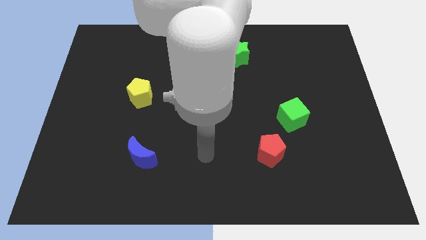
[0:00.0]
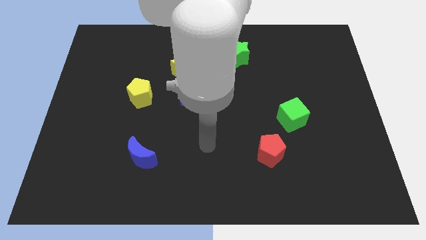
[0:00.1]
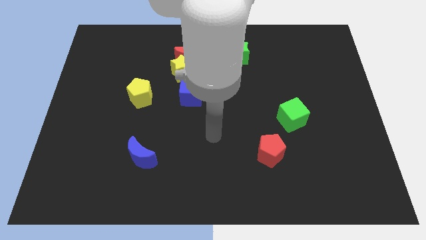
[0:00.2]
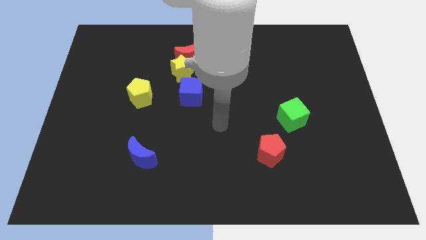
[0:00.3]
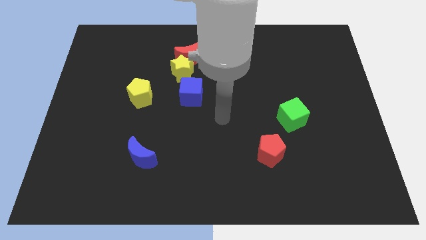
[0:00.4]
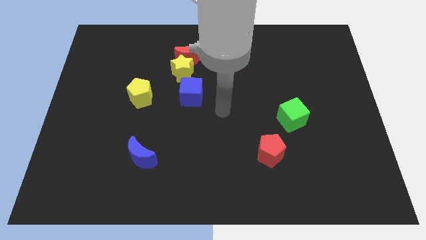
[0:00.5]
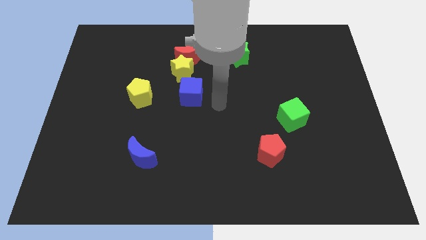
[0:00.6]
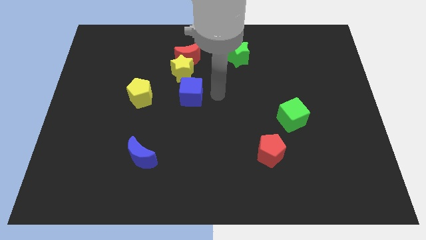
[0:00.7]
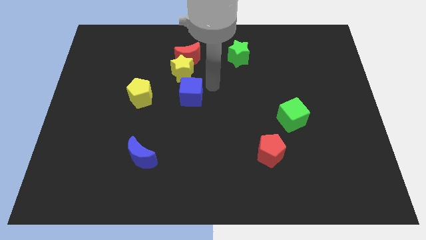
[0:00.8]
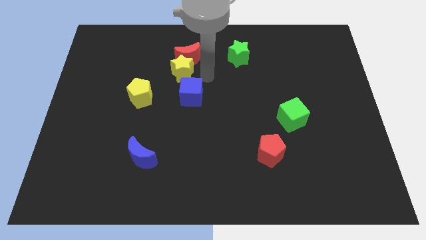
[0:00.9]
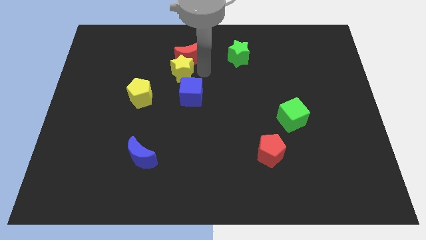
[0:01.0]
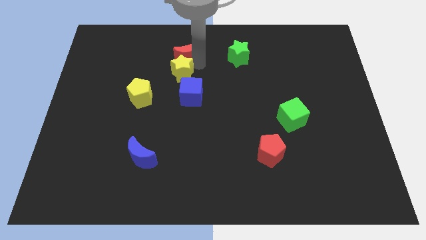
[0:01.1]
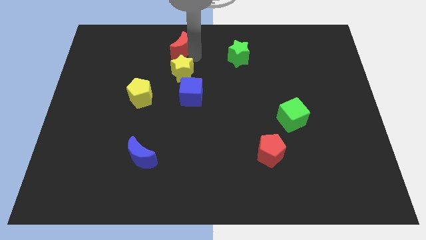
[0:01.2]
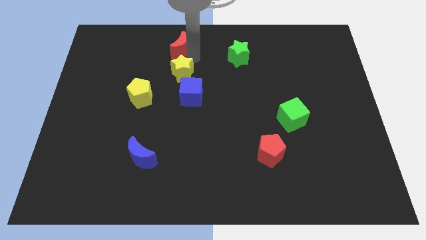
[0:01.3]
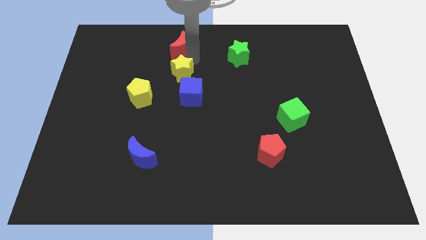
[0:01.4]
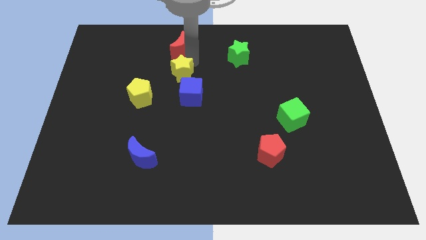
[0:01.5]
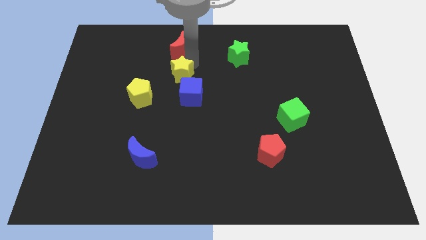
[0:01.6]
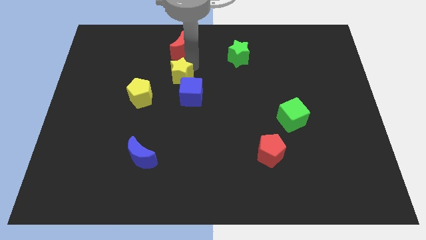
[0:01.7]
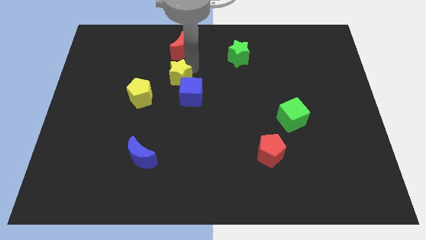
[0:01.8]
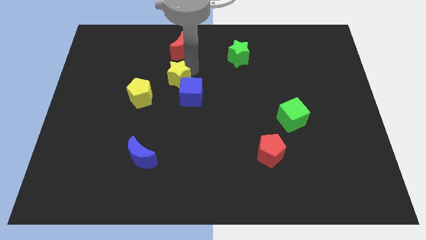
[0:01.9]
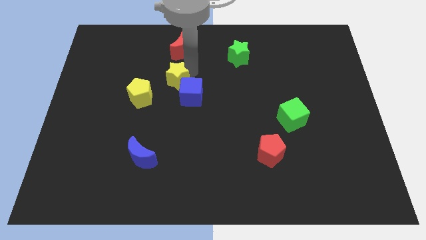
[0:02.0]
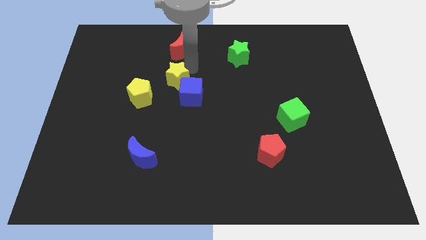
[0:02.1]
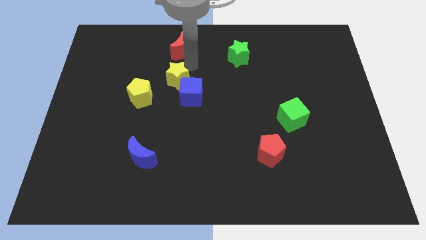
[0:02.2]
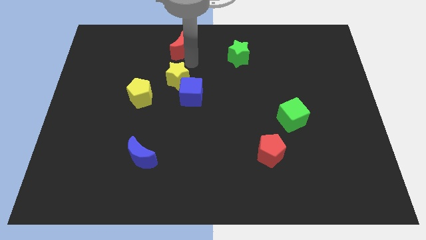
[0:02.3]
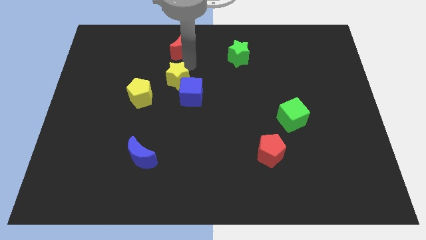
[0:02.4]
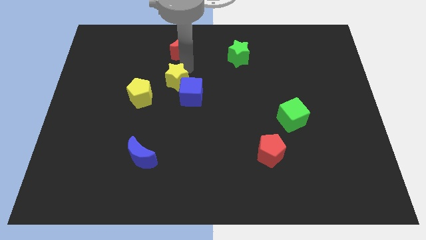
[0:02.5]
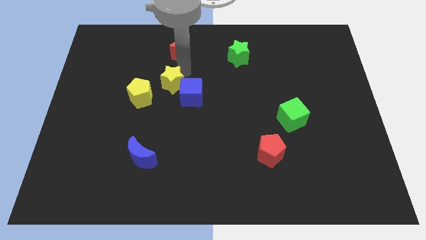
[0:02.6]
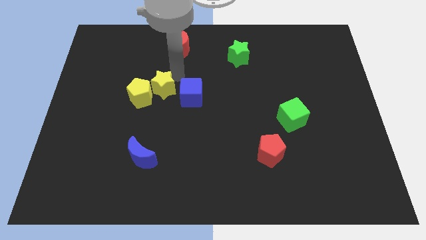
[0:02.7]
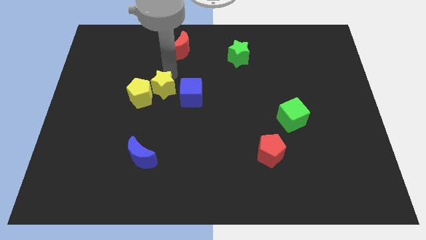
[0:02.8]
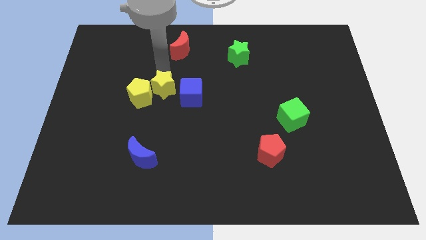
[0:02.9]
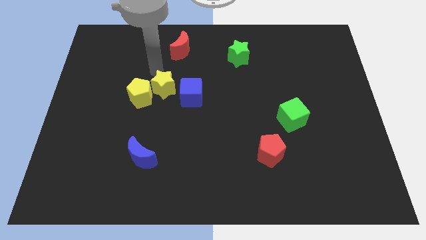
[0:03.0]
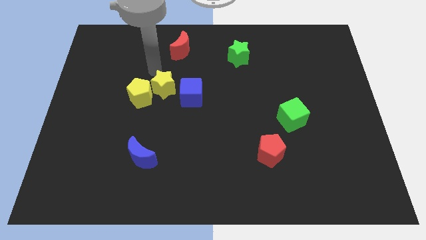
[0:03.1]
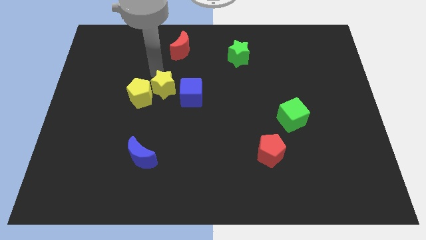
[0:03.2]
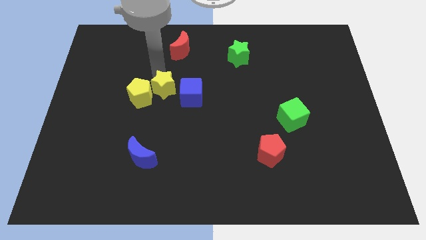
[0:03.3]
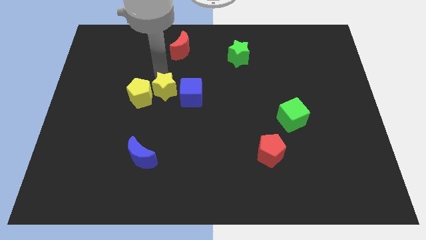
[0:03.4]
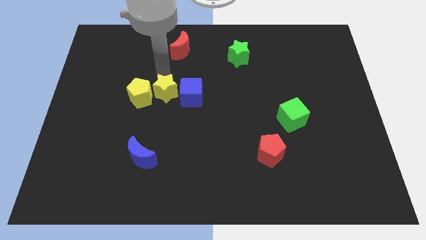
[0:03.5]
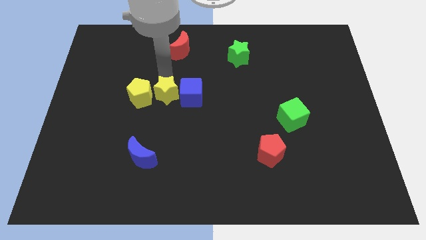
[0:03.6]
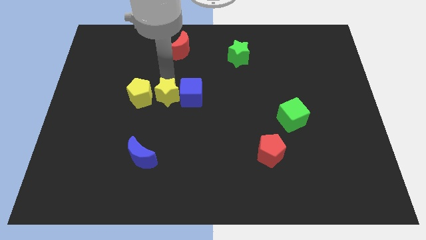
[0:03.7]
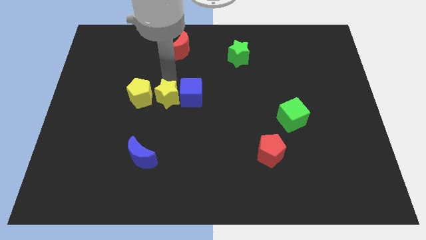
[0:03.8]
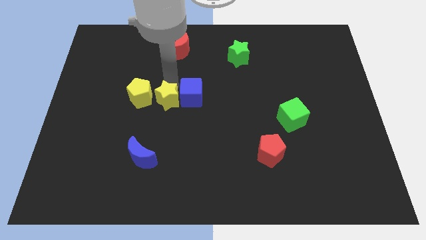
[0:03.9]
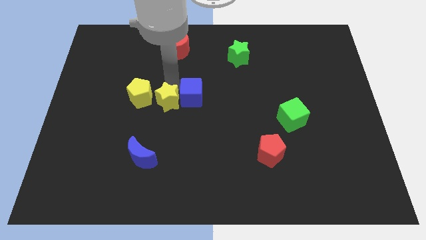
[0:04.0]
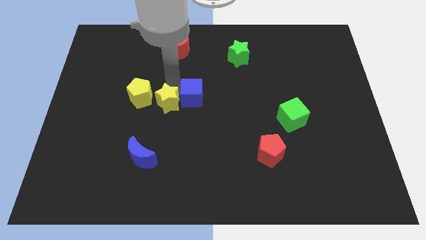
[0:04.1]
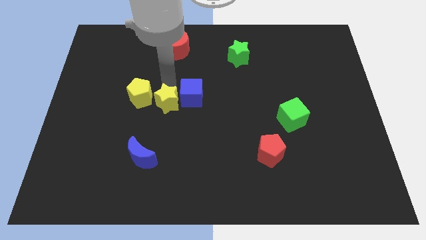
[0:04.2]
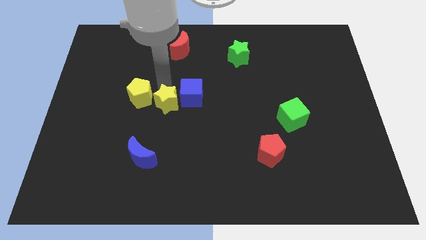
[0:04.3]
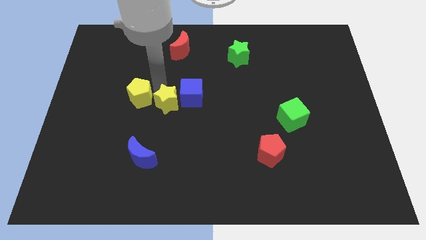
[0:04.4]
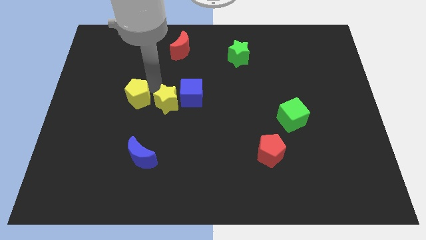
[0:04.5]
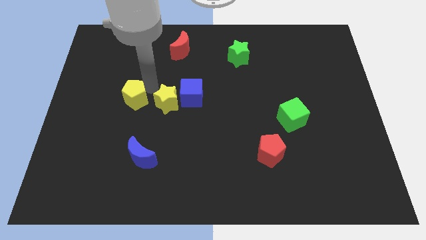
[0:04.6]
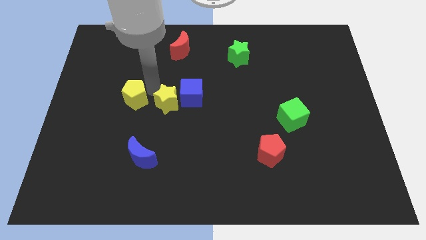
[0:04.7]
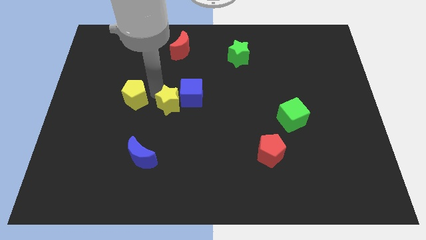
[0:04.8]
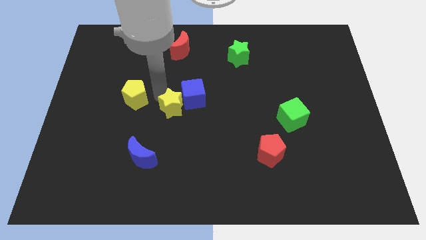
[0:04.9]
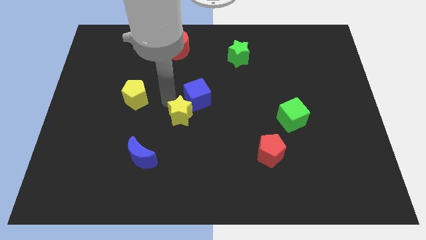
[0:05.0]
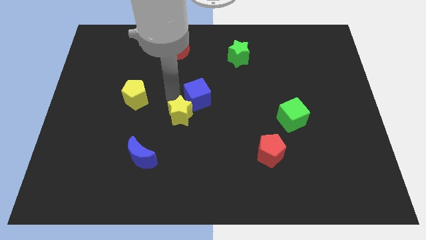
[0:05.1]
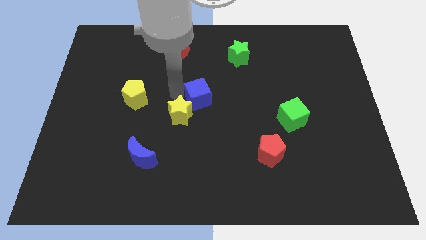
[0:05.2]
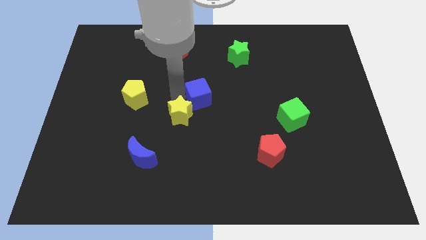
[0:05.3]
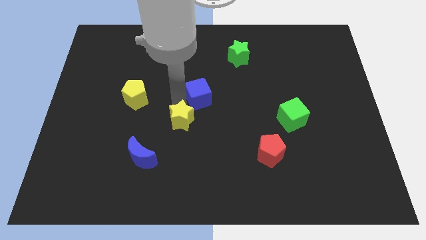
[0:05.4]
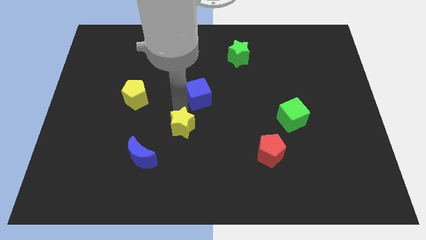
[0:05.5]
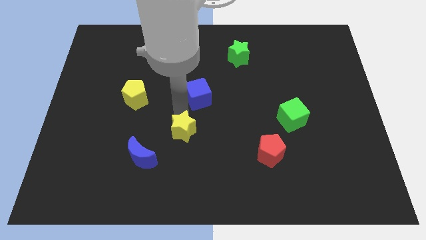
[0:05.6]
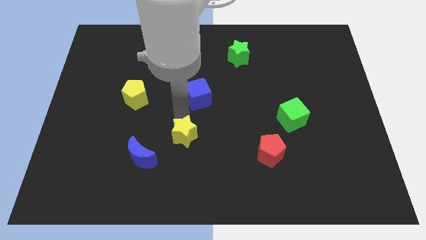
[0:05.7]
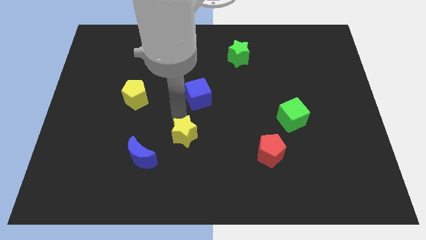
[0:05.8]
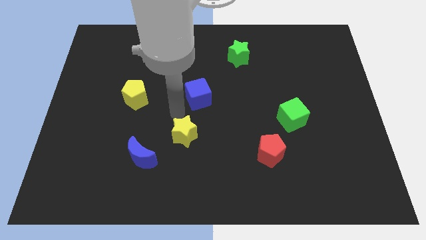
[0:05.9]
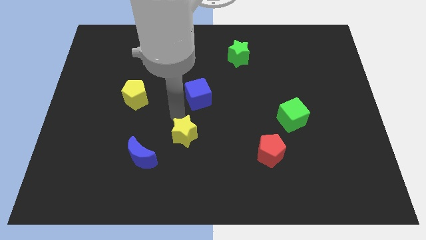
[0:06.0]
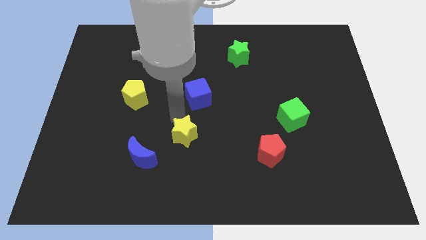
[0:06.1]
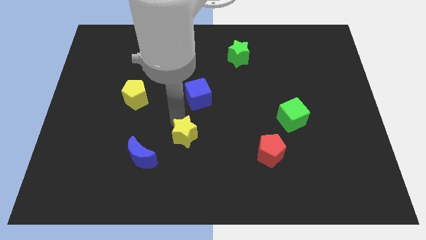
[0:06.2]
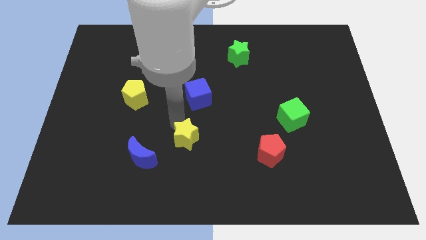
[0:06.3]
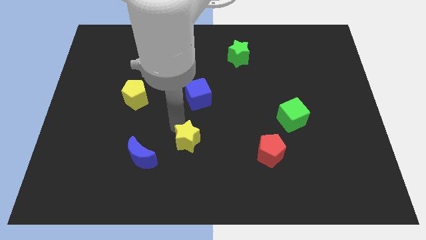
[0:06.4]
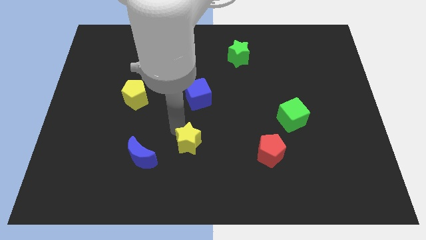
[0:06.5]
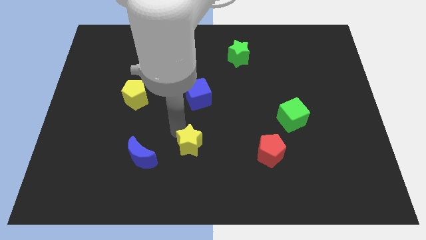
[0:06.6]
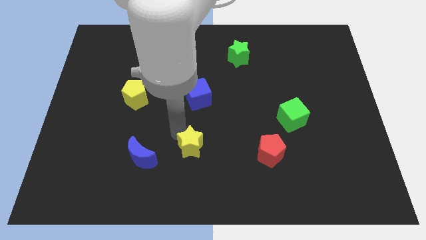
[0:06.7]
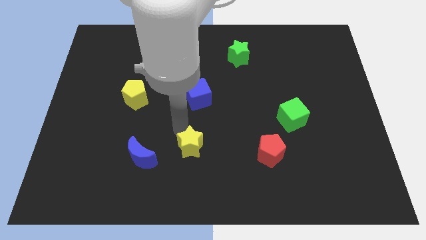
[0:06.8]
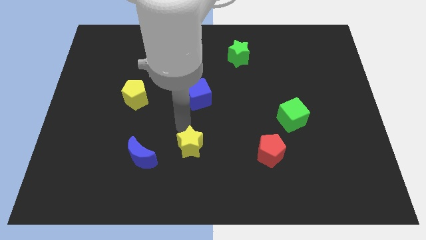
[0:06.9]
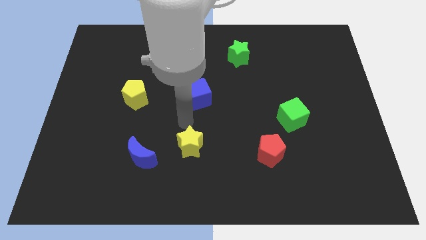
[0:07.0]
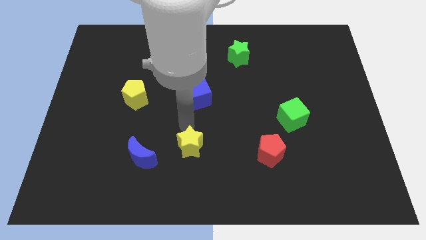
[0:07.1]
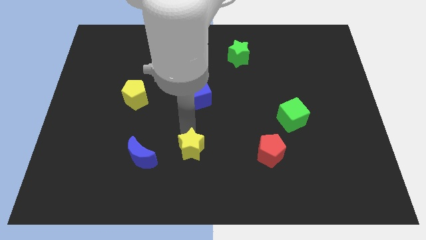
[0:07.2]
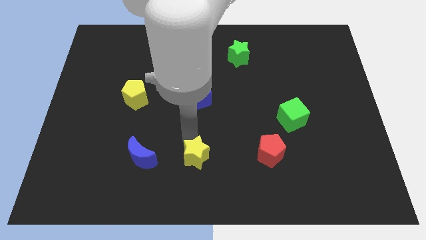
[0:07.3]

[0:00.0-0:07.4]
put the yellow star to the bottom side
